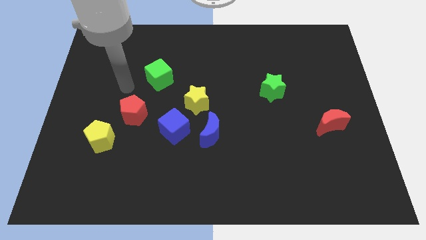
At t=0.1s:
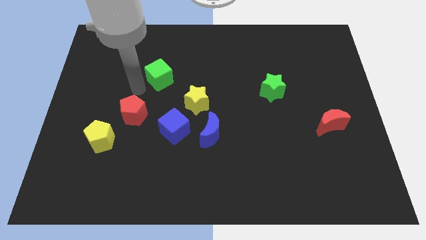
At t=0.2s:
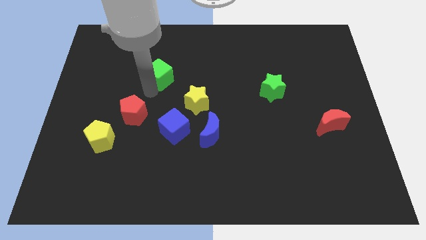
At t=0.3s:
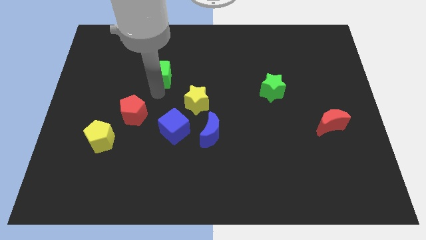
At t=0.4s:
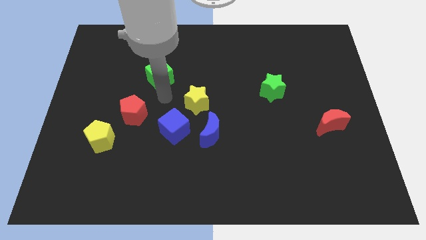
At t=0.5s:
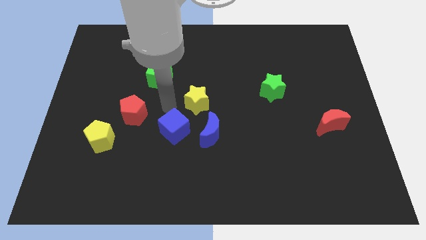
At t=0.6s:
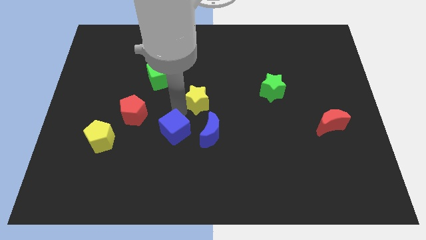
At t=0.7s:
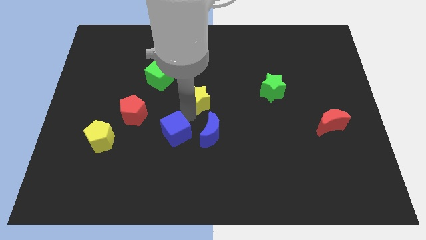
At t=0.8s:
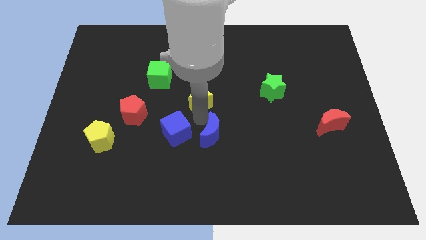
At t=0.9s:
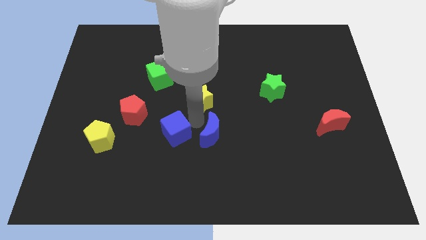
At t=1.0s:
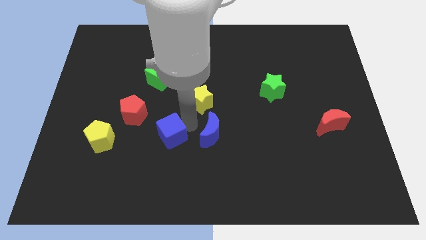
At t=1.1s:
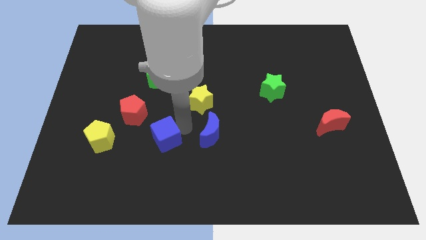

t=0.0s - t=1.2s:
separate the blue cube from the blue moon and yellow star

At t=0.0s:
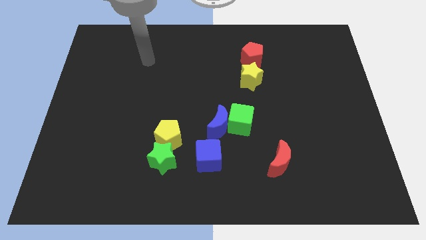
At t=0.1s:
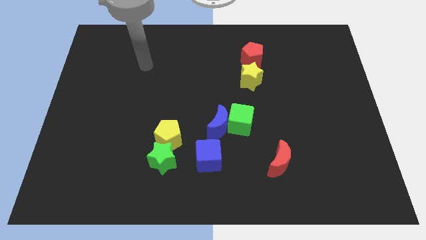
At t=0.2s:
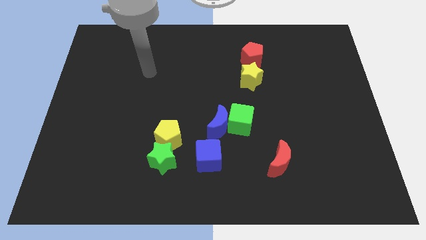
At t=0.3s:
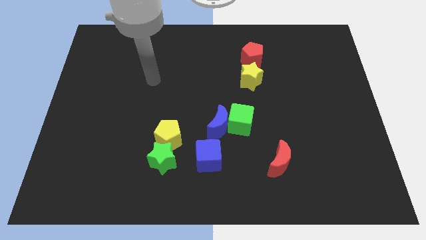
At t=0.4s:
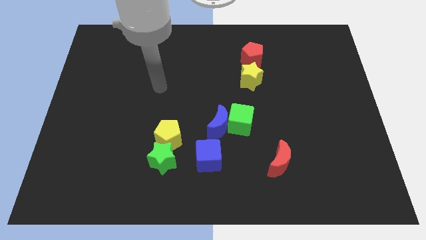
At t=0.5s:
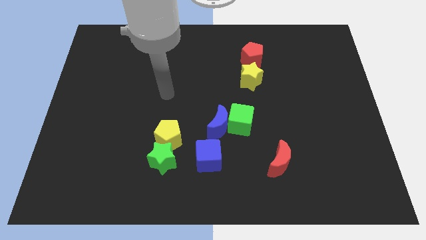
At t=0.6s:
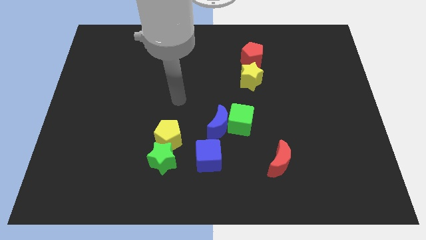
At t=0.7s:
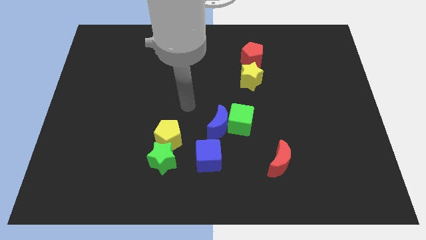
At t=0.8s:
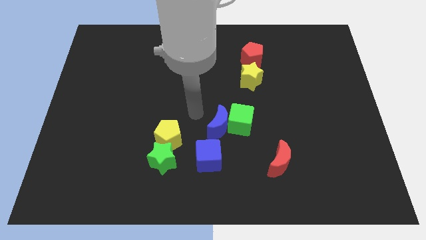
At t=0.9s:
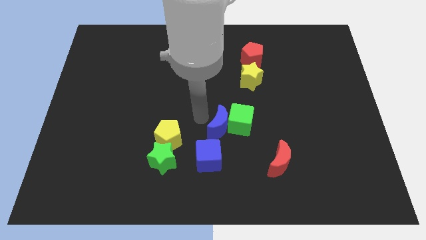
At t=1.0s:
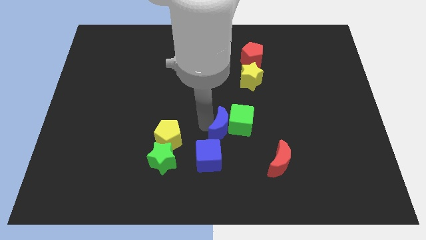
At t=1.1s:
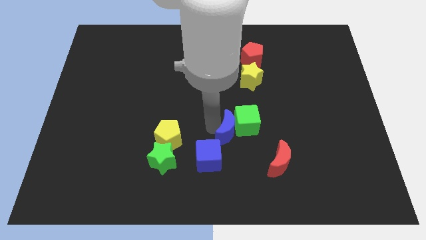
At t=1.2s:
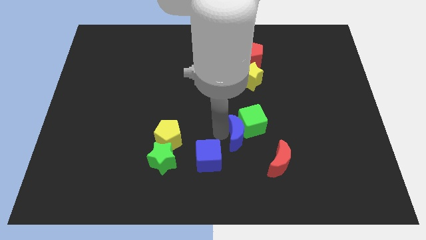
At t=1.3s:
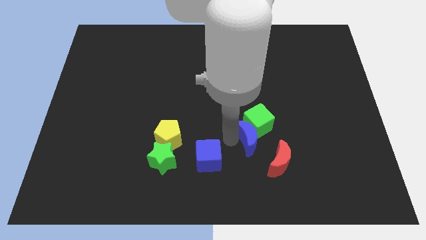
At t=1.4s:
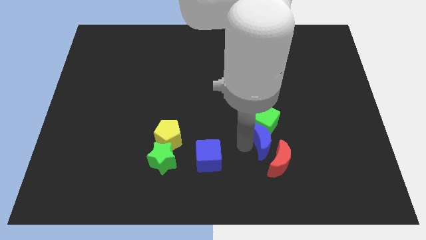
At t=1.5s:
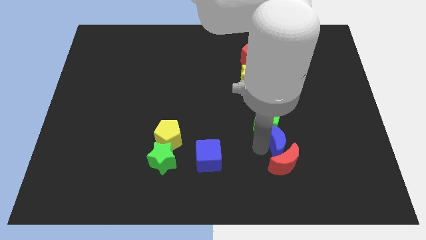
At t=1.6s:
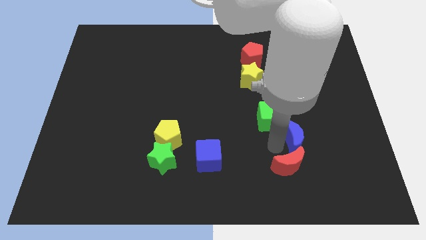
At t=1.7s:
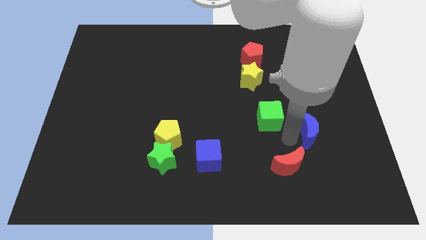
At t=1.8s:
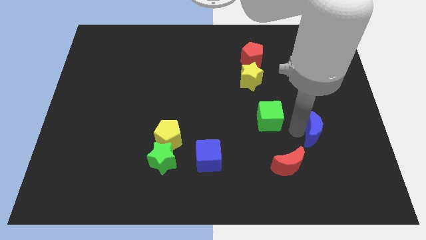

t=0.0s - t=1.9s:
move the green cube away from the blue moon

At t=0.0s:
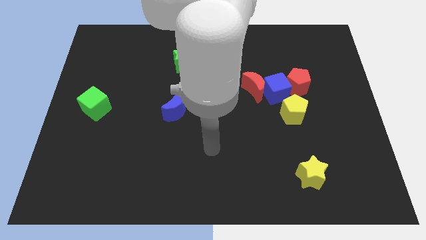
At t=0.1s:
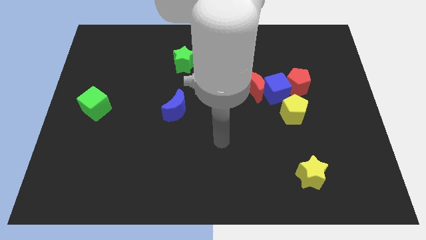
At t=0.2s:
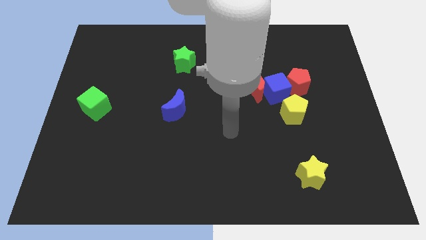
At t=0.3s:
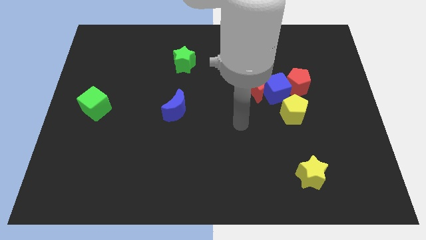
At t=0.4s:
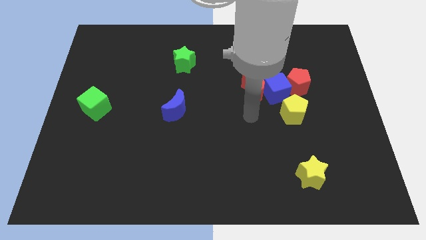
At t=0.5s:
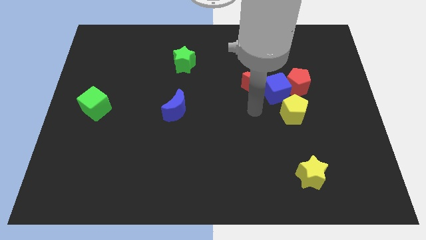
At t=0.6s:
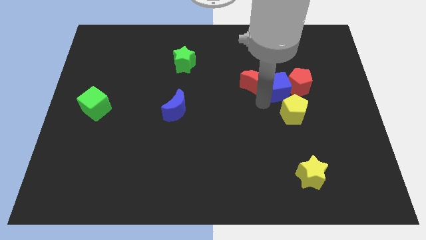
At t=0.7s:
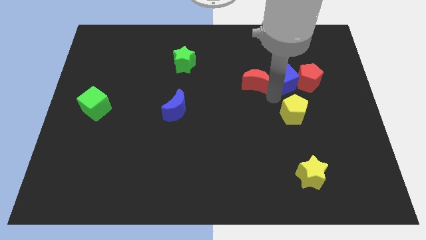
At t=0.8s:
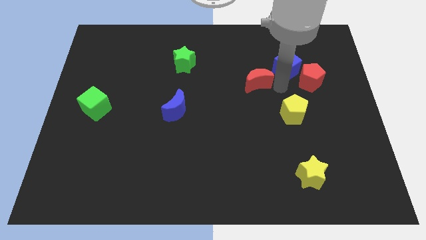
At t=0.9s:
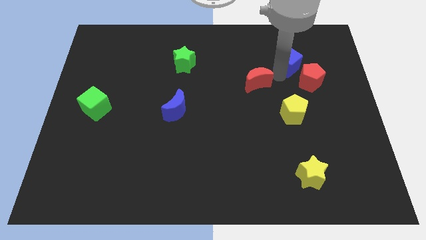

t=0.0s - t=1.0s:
separate the red moon from the blue cube

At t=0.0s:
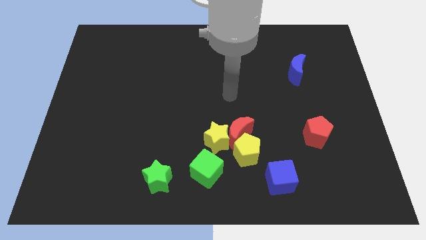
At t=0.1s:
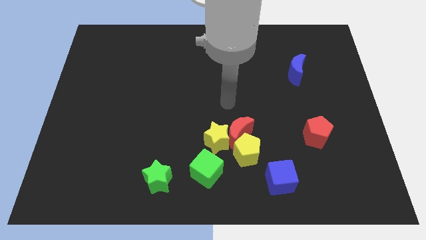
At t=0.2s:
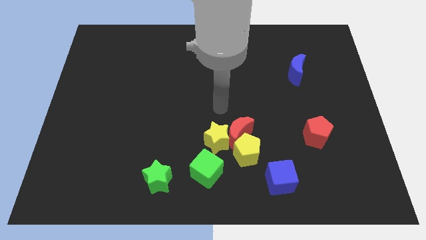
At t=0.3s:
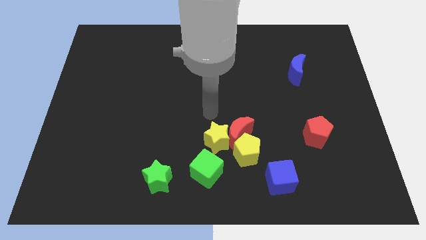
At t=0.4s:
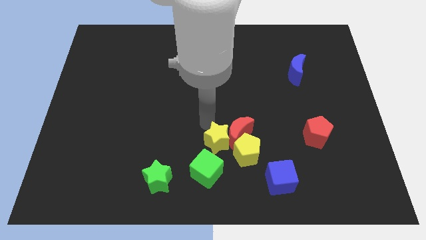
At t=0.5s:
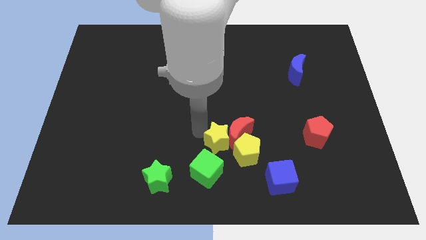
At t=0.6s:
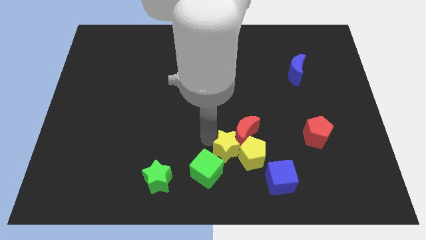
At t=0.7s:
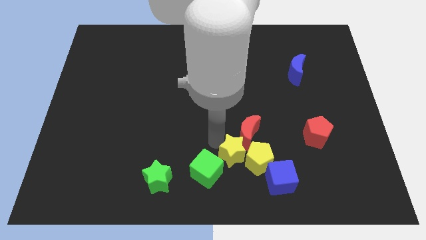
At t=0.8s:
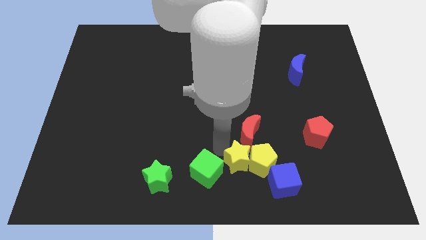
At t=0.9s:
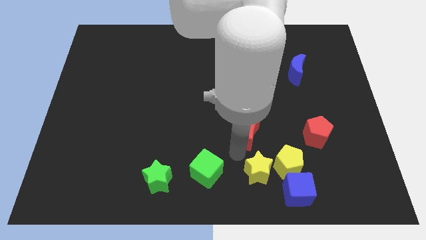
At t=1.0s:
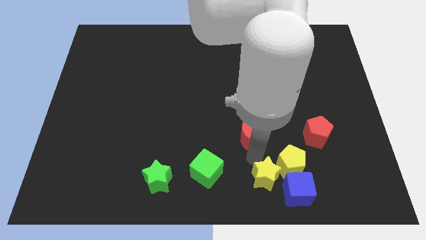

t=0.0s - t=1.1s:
separate the red moon from the yellow pentagon and yellow star

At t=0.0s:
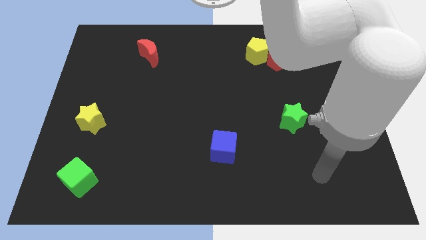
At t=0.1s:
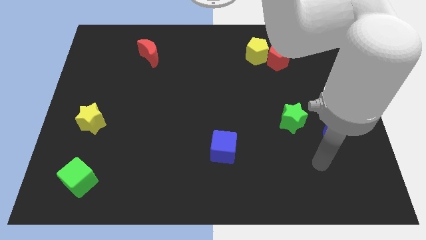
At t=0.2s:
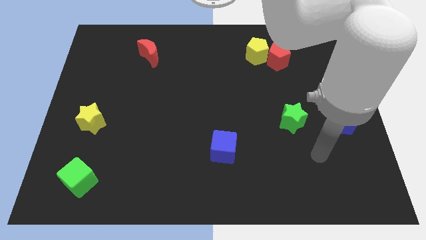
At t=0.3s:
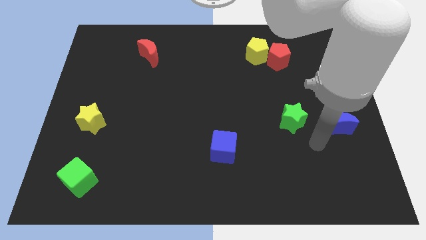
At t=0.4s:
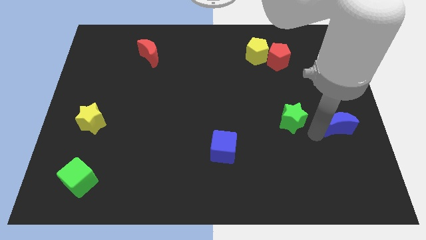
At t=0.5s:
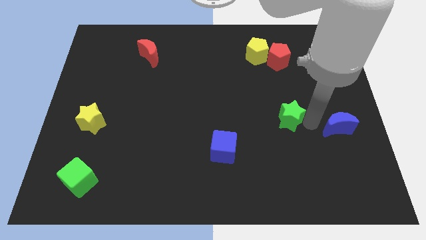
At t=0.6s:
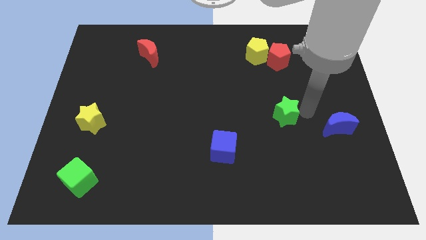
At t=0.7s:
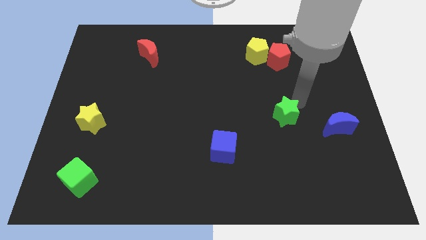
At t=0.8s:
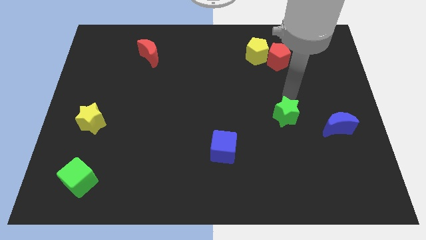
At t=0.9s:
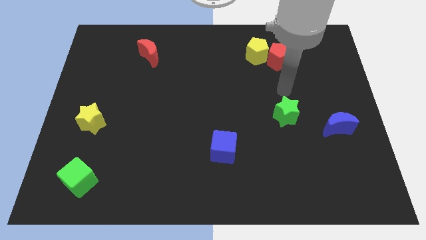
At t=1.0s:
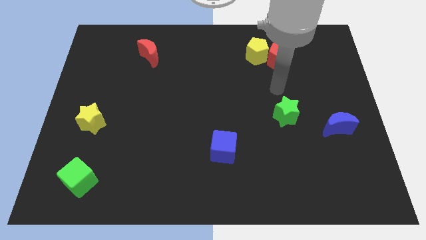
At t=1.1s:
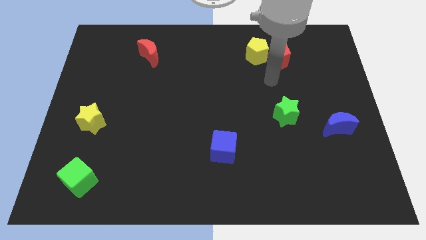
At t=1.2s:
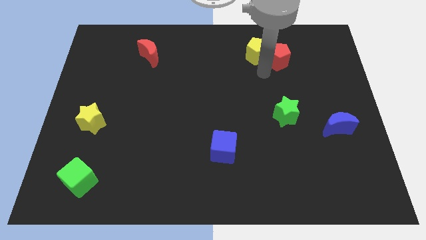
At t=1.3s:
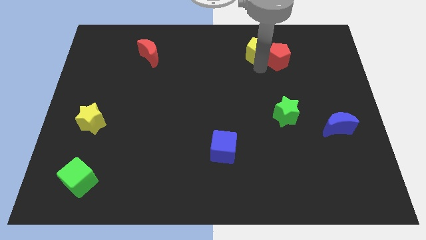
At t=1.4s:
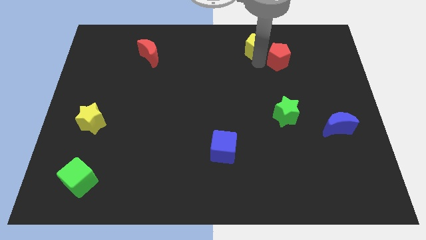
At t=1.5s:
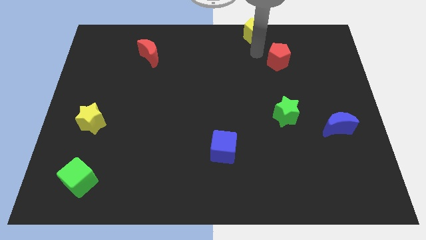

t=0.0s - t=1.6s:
pull the red pentagon apart from the yellow pentagon

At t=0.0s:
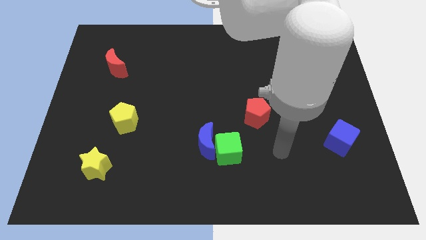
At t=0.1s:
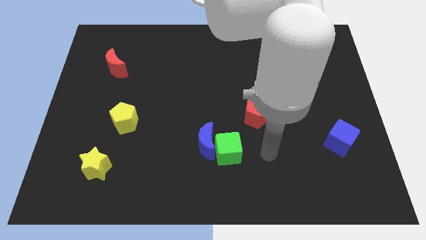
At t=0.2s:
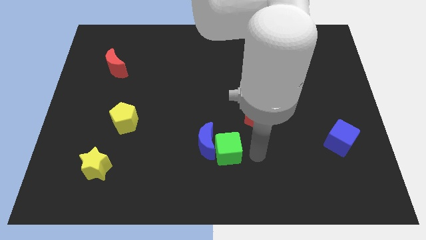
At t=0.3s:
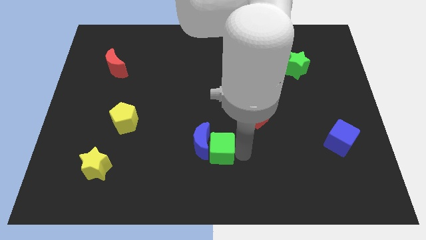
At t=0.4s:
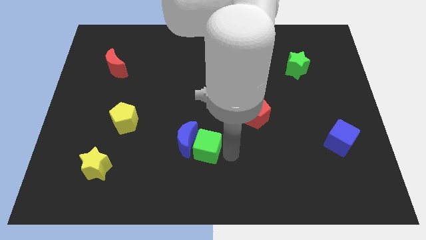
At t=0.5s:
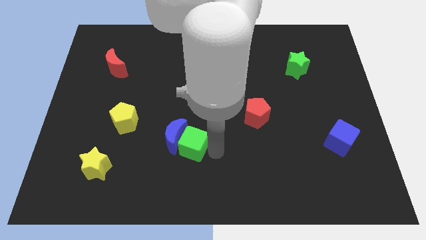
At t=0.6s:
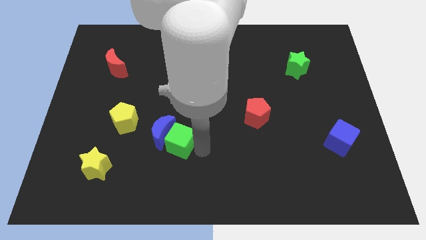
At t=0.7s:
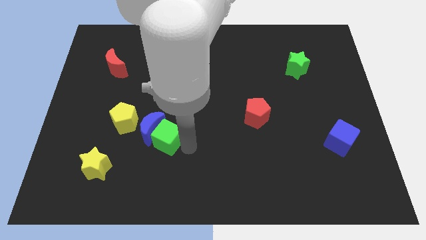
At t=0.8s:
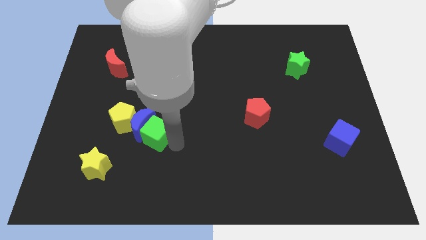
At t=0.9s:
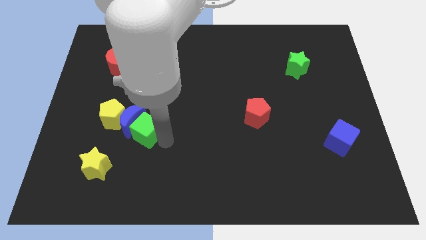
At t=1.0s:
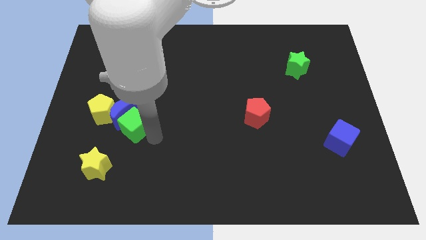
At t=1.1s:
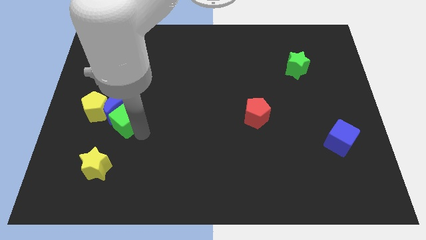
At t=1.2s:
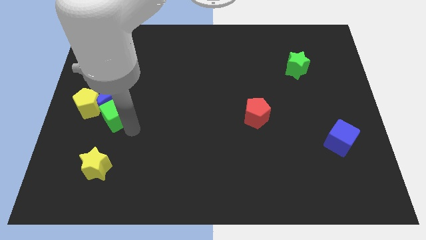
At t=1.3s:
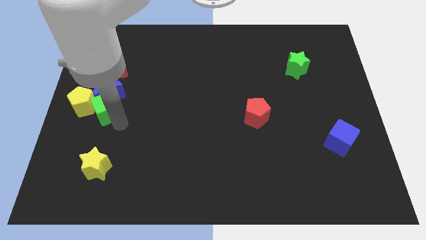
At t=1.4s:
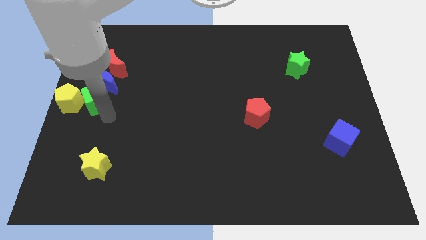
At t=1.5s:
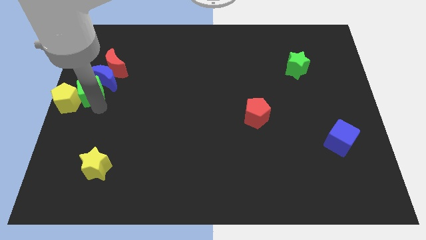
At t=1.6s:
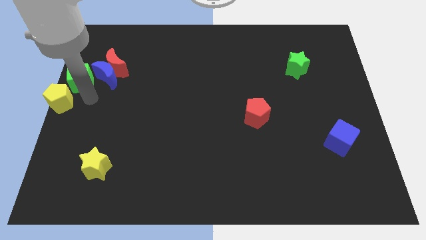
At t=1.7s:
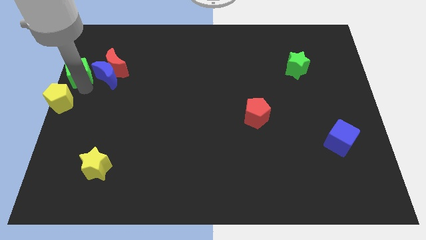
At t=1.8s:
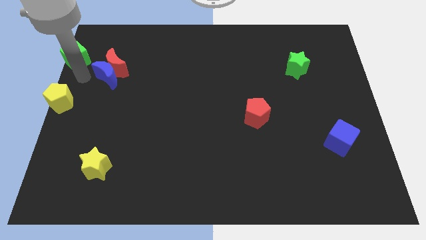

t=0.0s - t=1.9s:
separate the blue moon from the green cube

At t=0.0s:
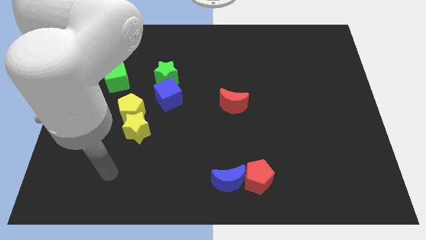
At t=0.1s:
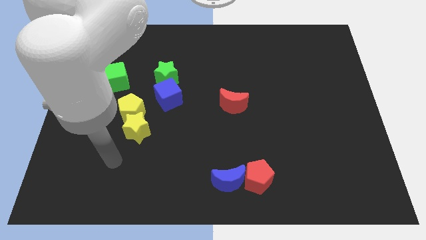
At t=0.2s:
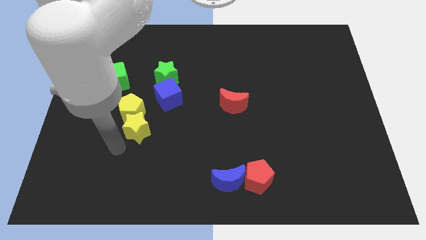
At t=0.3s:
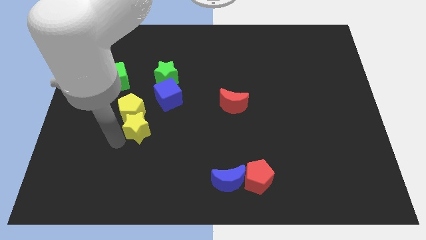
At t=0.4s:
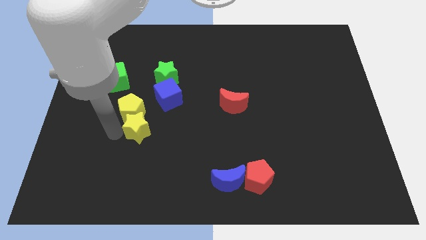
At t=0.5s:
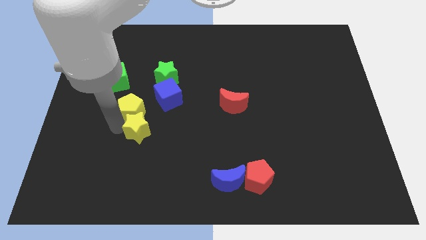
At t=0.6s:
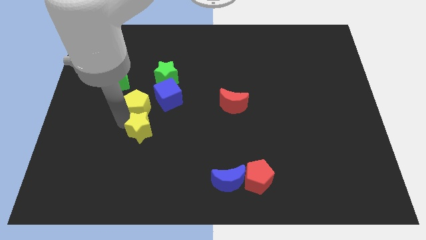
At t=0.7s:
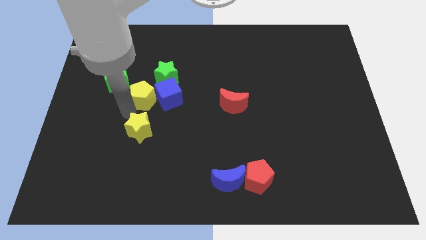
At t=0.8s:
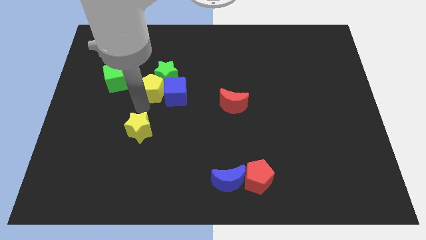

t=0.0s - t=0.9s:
separate the yellow star from the yellow pentagon
